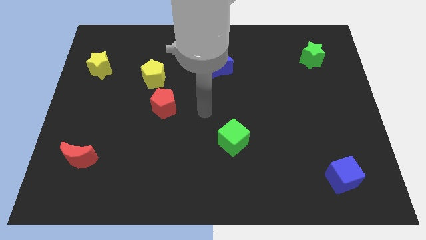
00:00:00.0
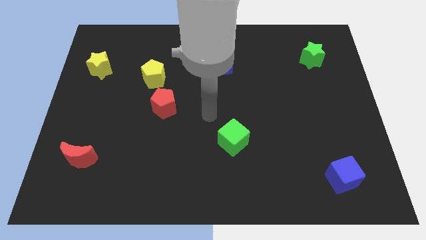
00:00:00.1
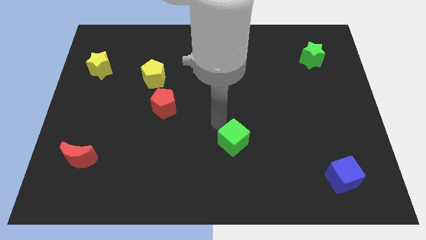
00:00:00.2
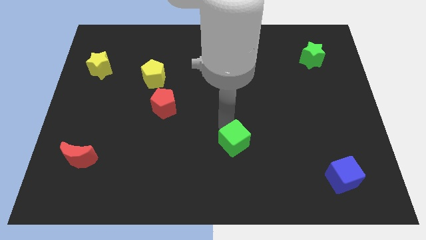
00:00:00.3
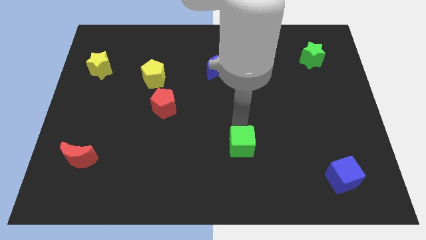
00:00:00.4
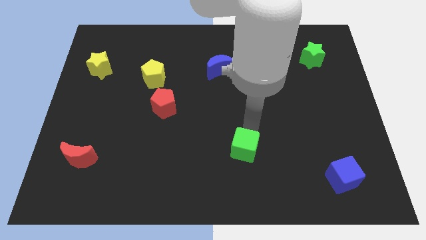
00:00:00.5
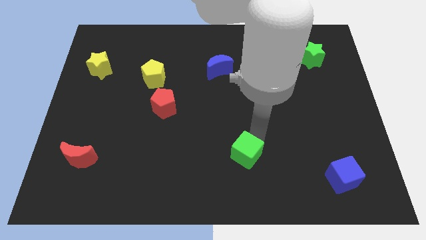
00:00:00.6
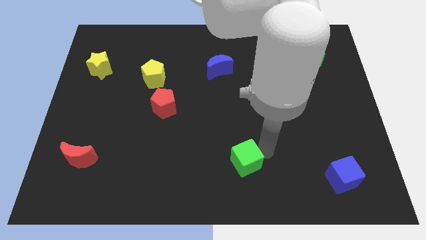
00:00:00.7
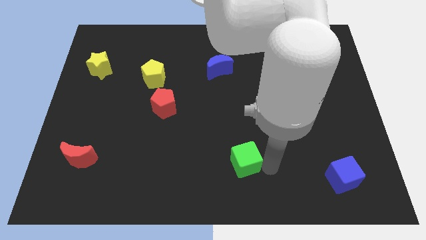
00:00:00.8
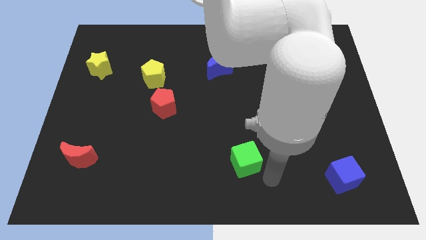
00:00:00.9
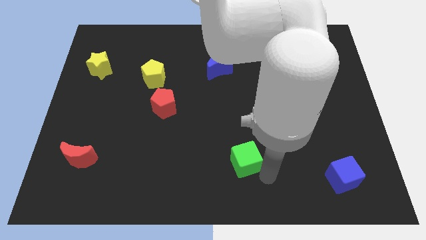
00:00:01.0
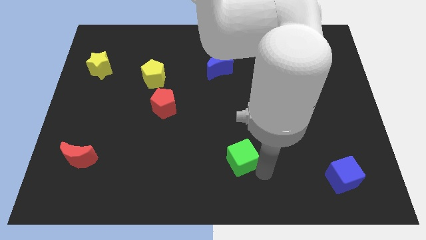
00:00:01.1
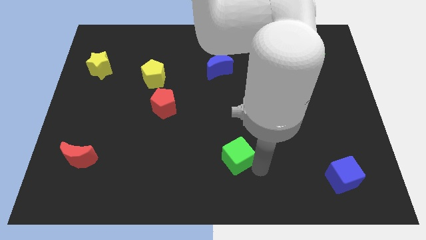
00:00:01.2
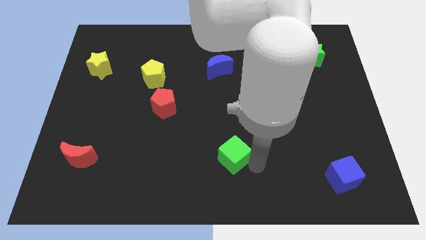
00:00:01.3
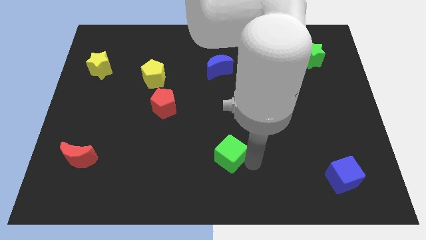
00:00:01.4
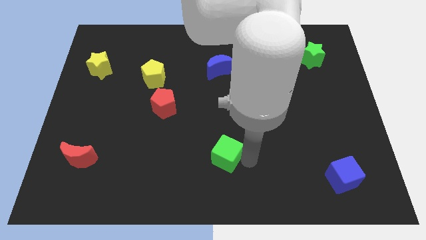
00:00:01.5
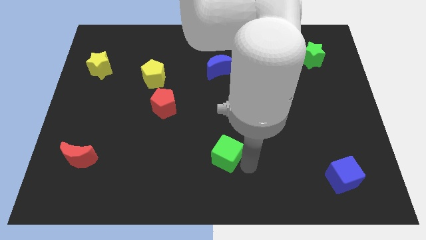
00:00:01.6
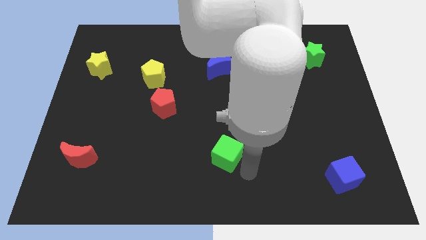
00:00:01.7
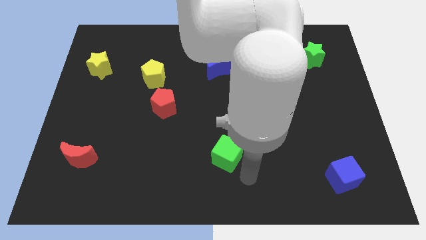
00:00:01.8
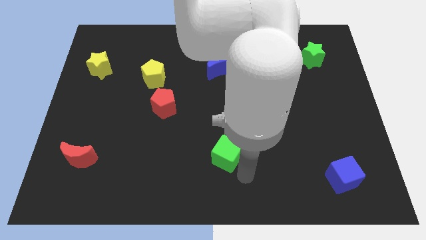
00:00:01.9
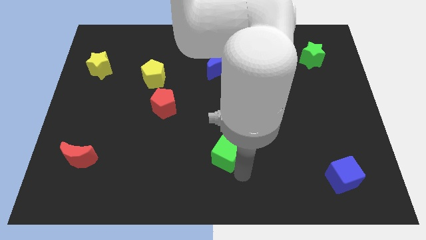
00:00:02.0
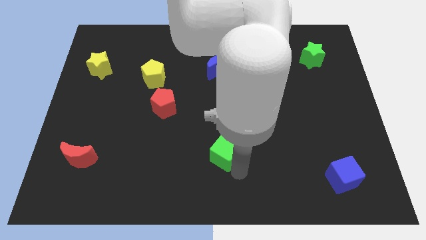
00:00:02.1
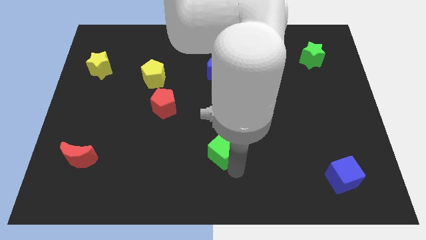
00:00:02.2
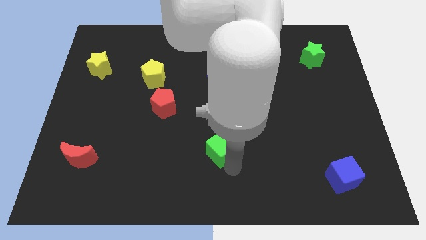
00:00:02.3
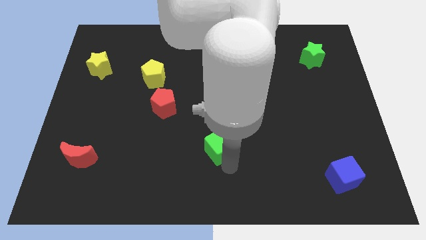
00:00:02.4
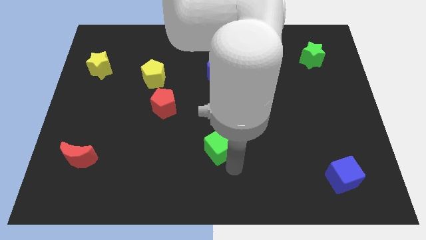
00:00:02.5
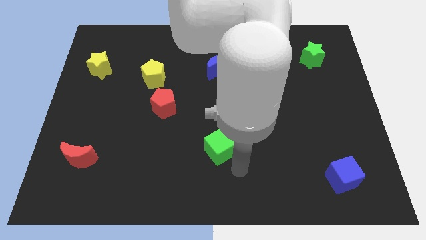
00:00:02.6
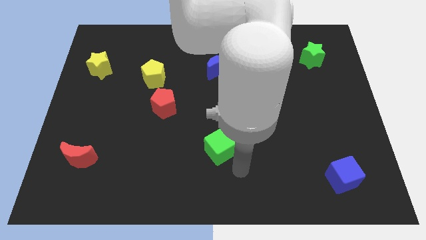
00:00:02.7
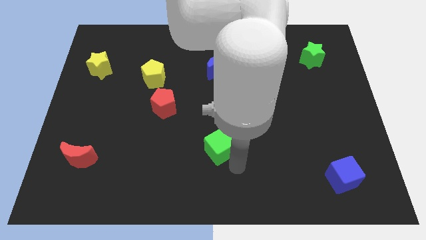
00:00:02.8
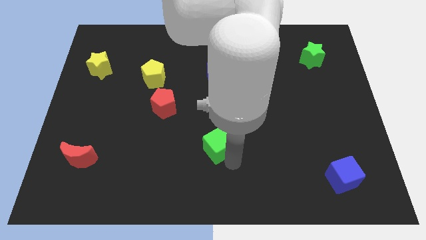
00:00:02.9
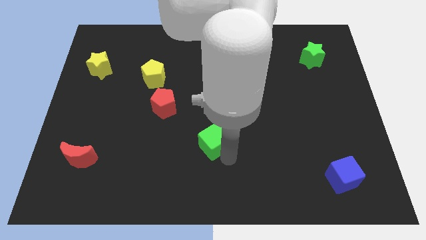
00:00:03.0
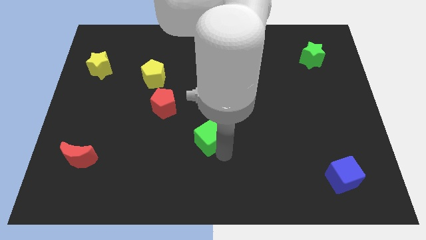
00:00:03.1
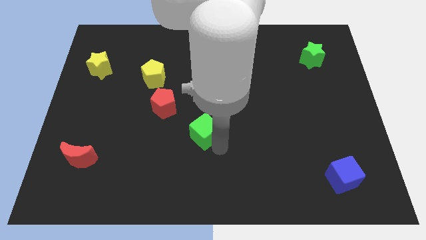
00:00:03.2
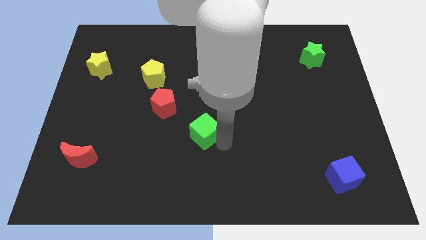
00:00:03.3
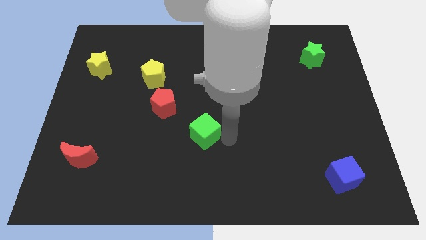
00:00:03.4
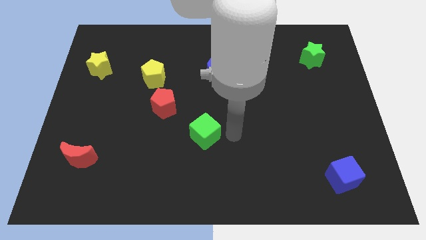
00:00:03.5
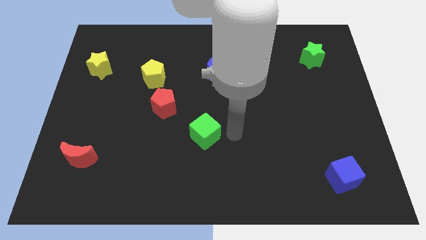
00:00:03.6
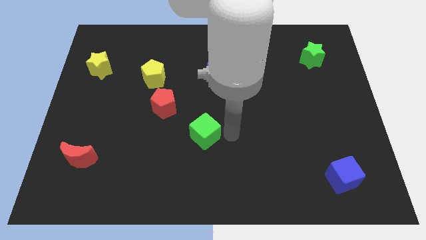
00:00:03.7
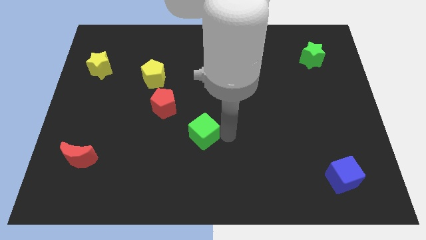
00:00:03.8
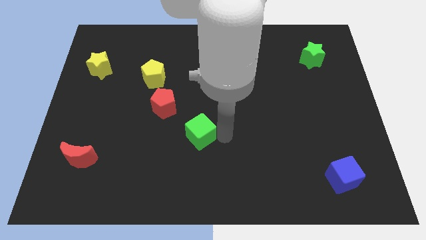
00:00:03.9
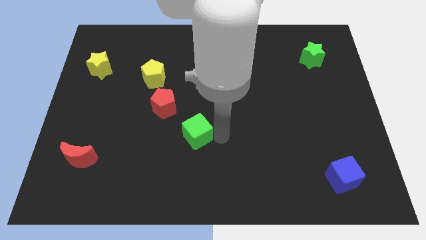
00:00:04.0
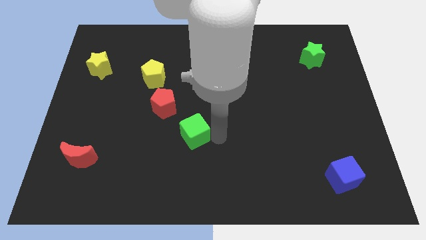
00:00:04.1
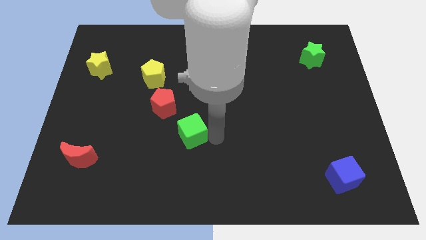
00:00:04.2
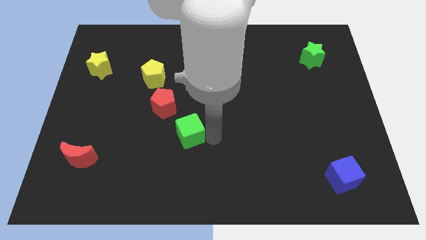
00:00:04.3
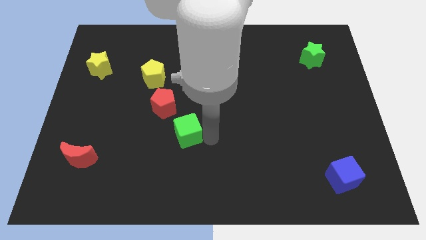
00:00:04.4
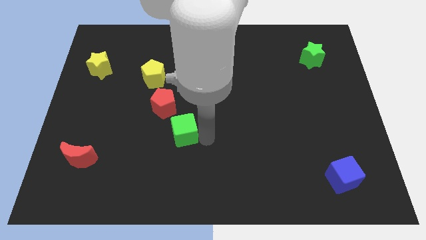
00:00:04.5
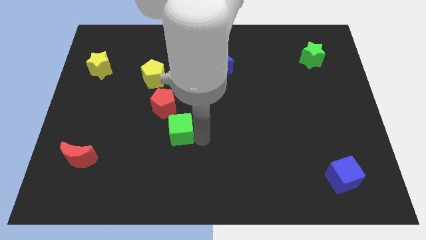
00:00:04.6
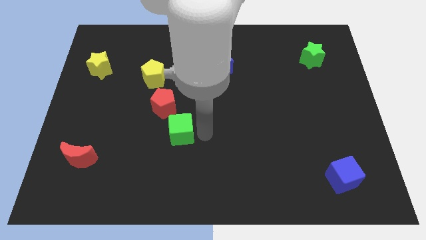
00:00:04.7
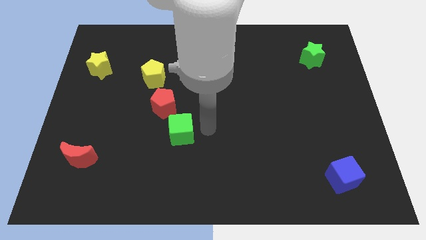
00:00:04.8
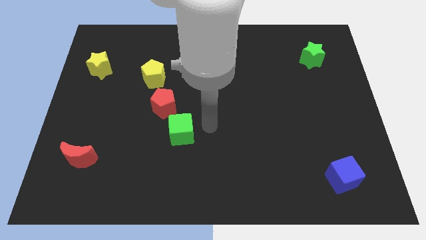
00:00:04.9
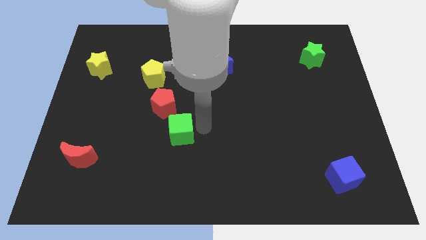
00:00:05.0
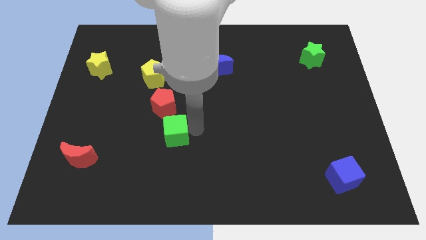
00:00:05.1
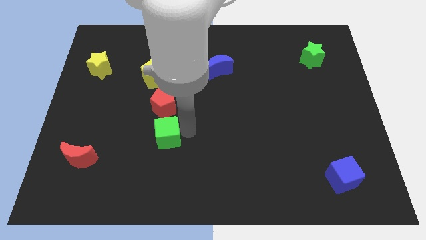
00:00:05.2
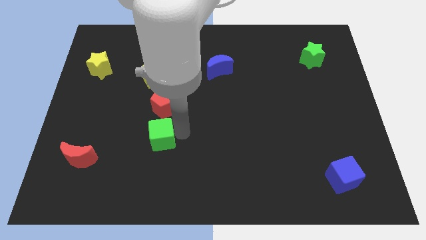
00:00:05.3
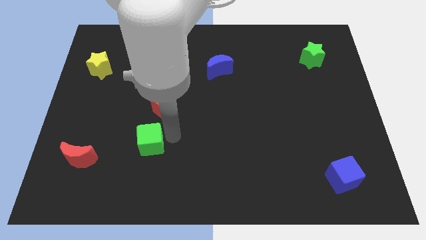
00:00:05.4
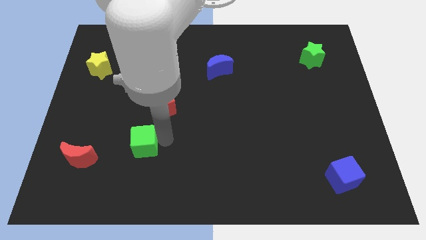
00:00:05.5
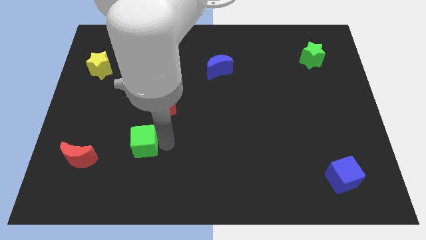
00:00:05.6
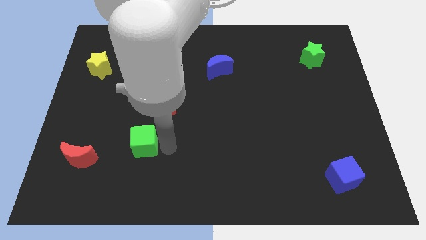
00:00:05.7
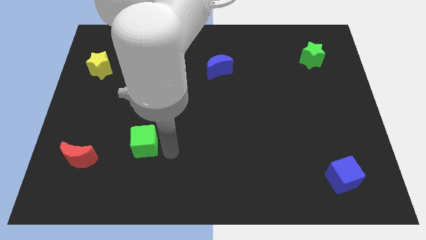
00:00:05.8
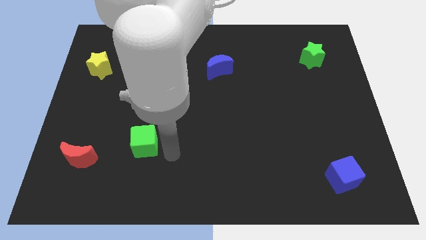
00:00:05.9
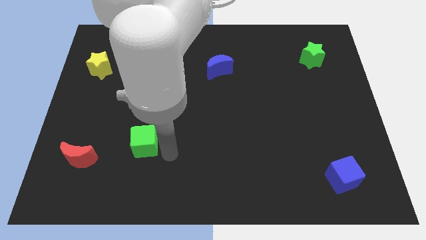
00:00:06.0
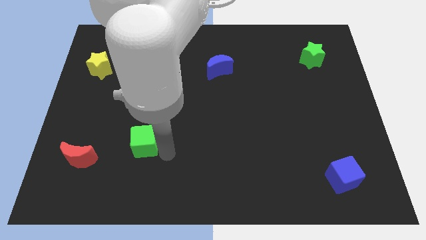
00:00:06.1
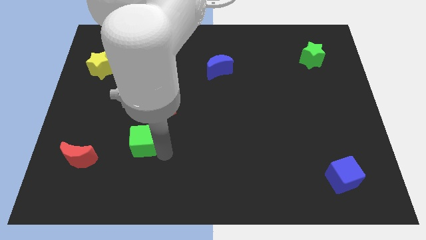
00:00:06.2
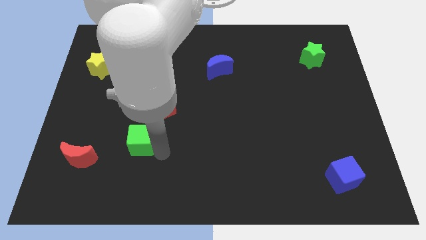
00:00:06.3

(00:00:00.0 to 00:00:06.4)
slide the green cube left

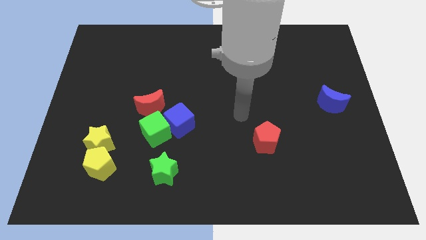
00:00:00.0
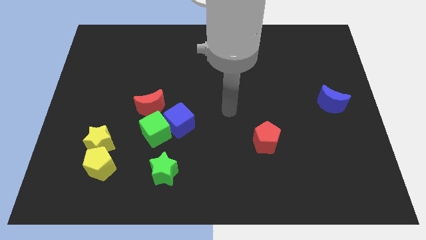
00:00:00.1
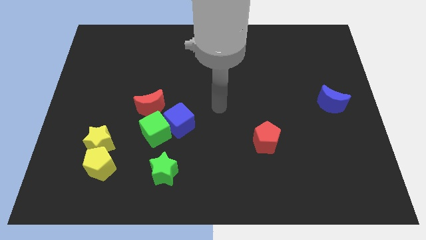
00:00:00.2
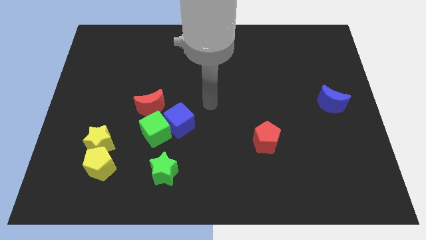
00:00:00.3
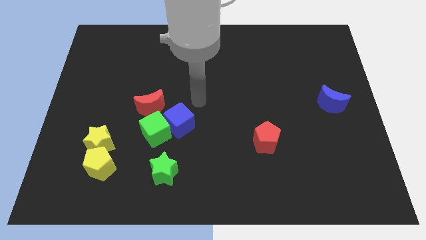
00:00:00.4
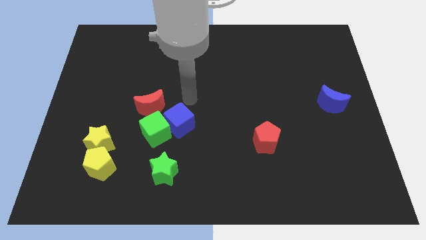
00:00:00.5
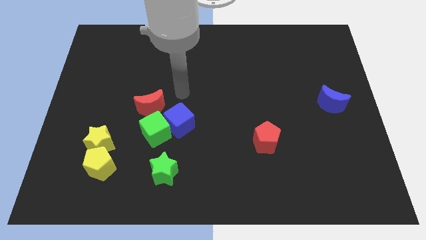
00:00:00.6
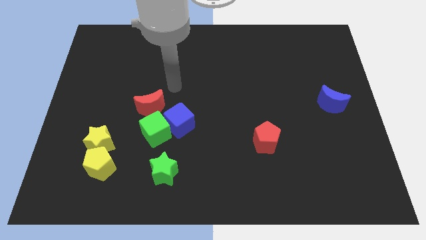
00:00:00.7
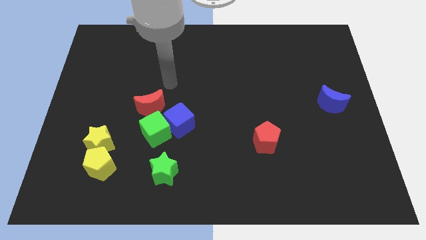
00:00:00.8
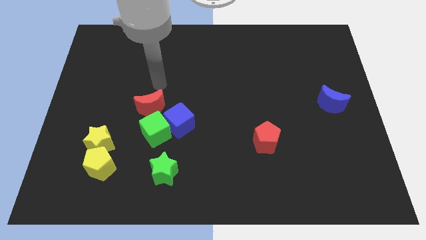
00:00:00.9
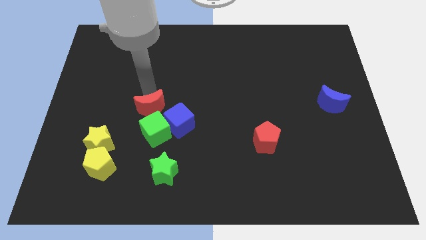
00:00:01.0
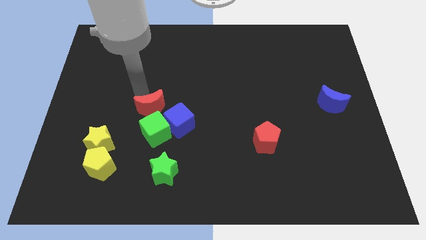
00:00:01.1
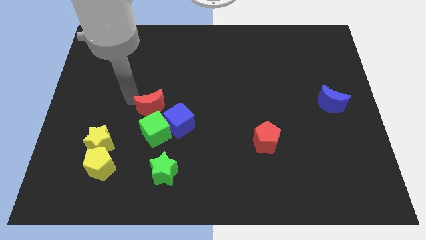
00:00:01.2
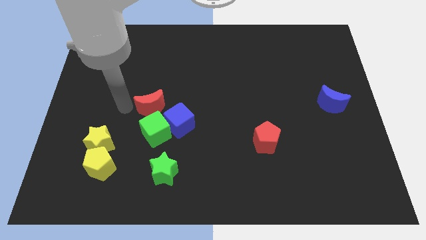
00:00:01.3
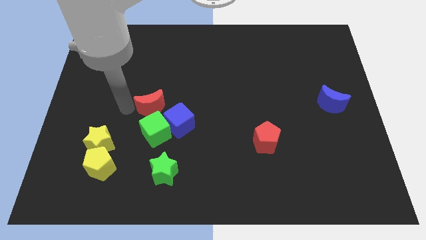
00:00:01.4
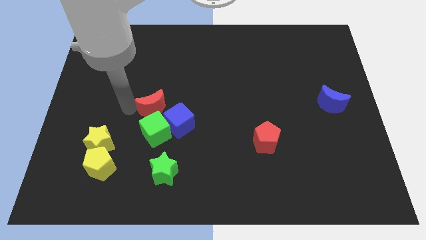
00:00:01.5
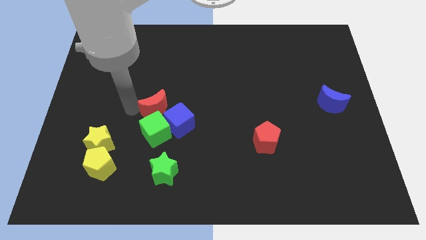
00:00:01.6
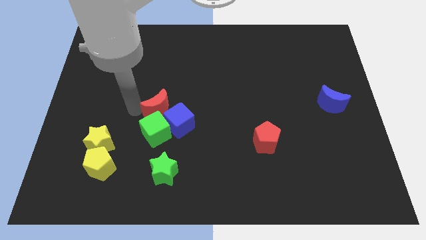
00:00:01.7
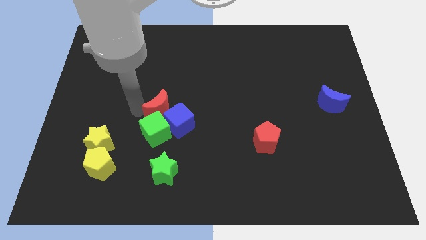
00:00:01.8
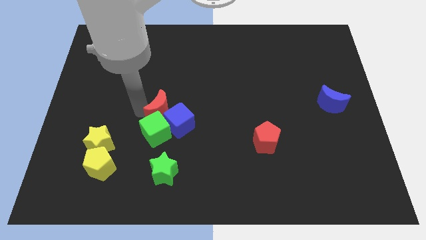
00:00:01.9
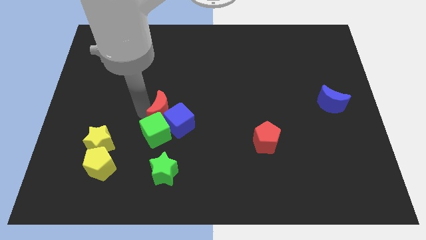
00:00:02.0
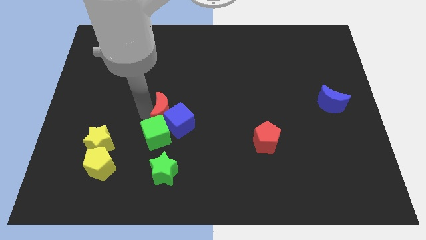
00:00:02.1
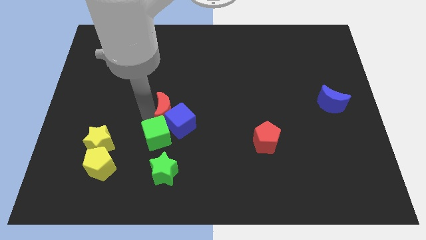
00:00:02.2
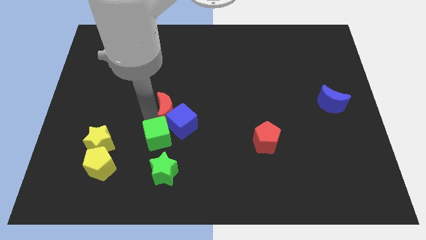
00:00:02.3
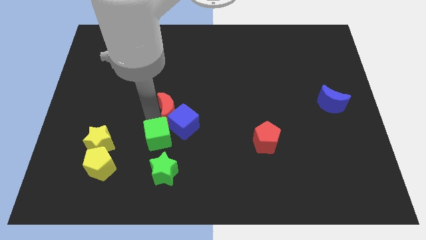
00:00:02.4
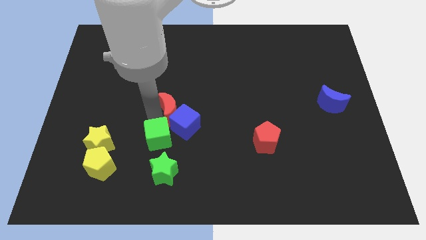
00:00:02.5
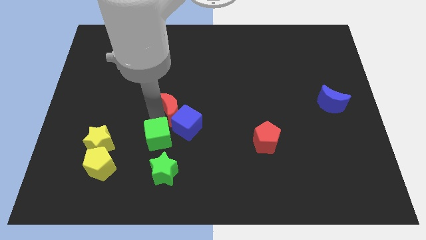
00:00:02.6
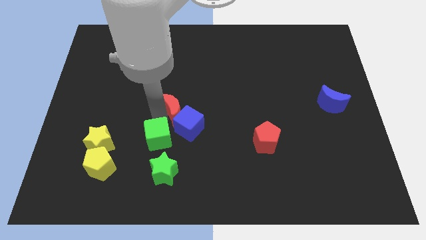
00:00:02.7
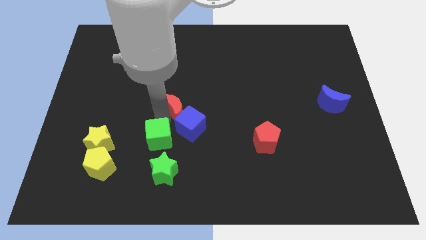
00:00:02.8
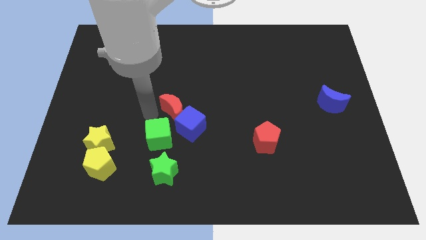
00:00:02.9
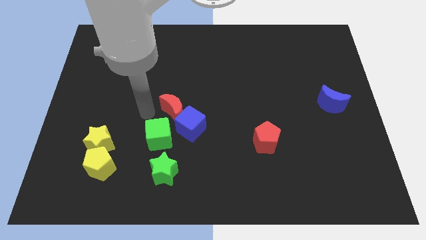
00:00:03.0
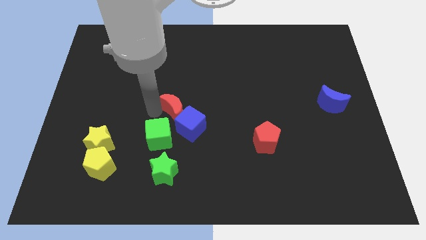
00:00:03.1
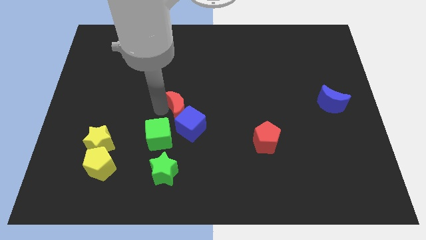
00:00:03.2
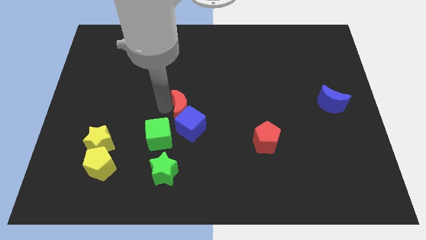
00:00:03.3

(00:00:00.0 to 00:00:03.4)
slightly push the red moon to the right
